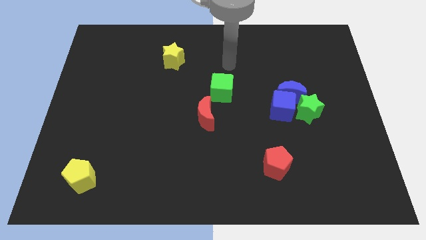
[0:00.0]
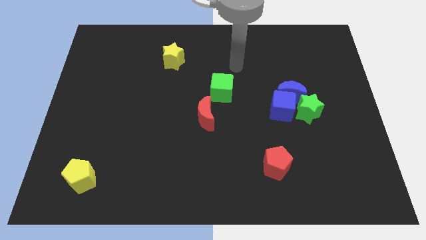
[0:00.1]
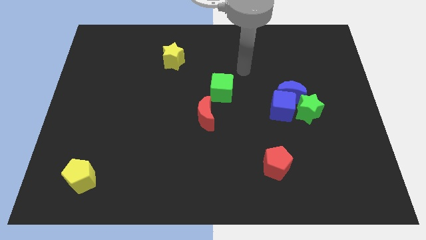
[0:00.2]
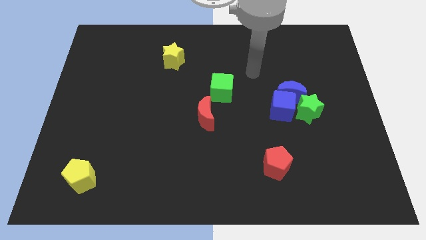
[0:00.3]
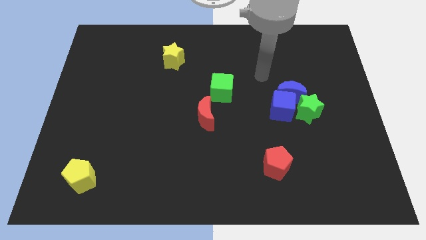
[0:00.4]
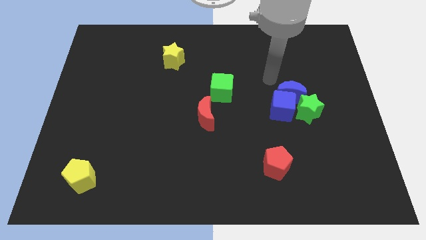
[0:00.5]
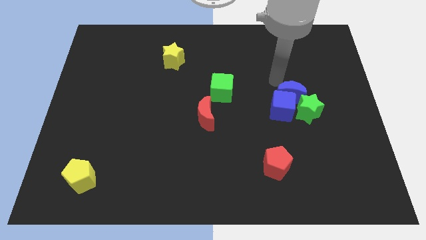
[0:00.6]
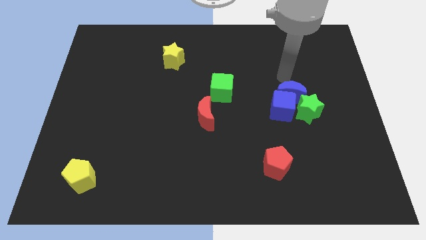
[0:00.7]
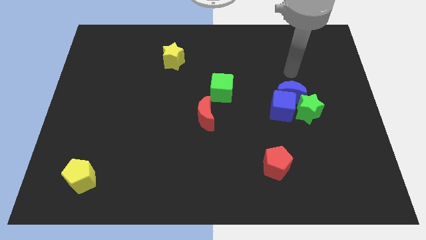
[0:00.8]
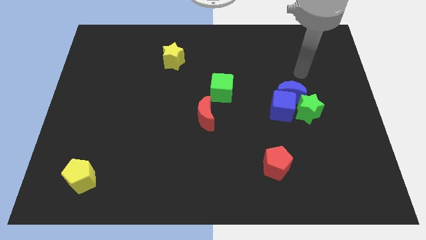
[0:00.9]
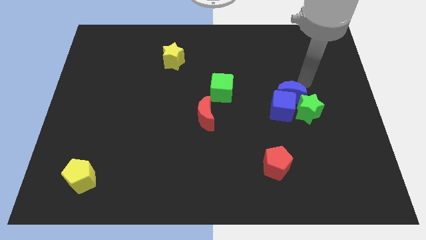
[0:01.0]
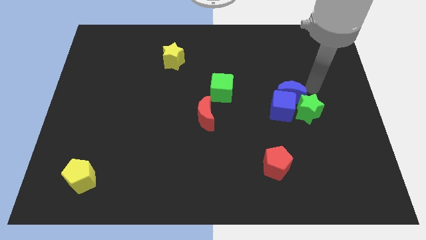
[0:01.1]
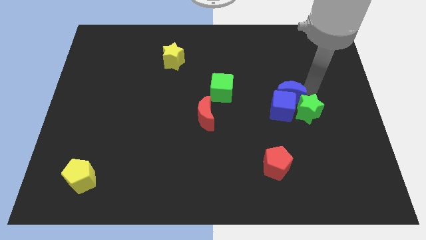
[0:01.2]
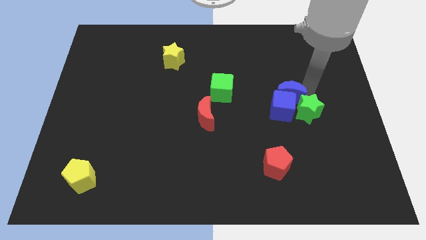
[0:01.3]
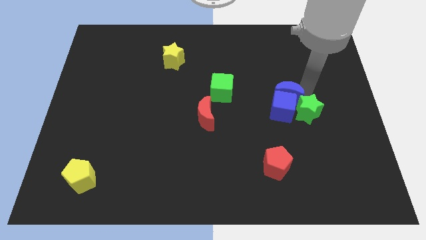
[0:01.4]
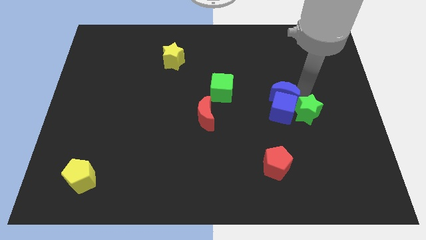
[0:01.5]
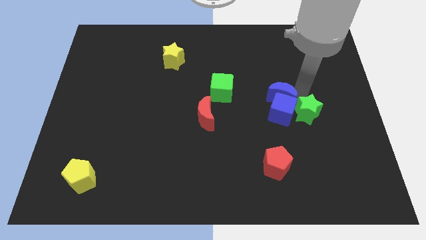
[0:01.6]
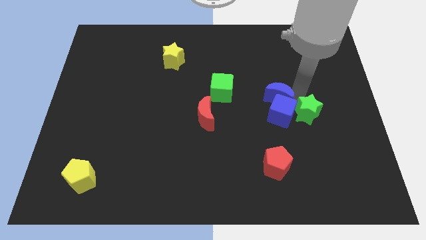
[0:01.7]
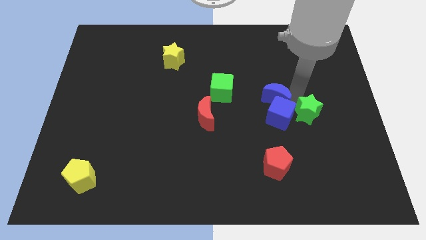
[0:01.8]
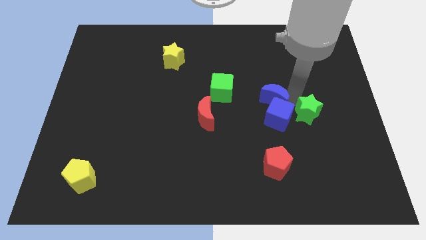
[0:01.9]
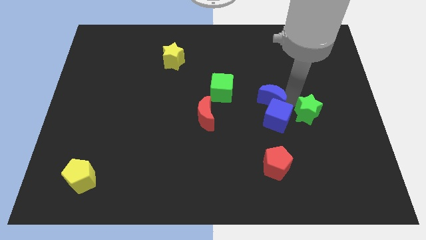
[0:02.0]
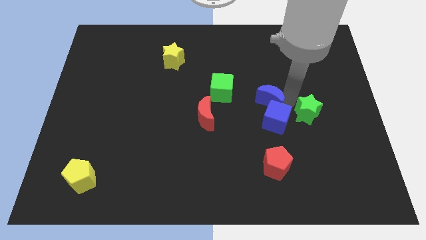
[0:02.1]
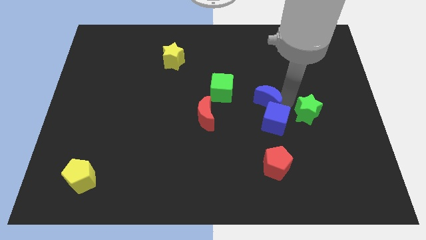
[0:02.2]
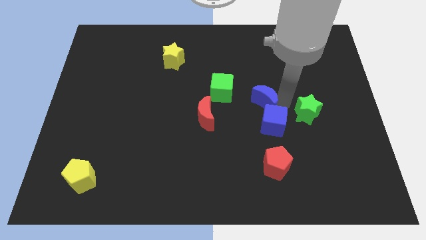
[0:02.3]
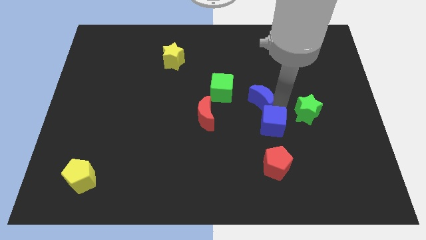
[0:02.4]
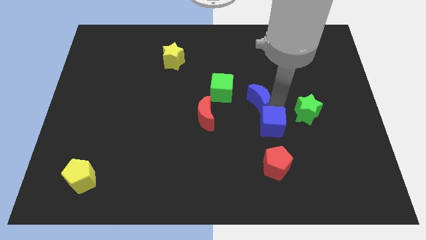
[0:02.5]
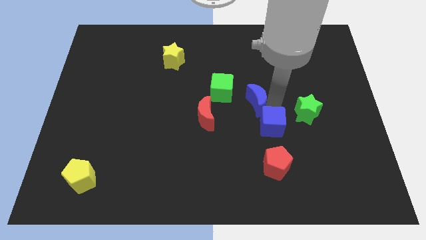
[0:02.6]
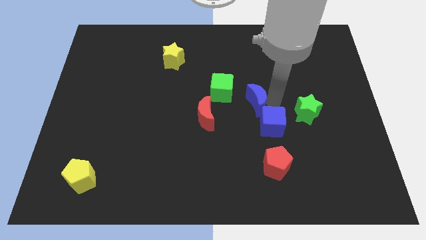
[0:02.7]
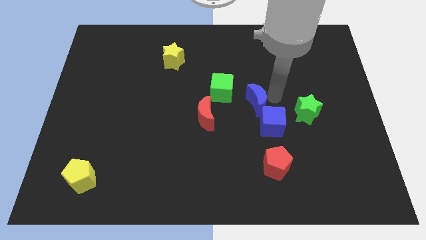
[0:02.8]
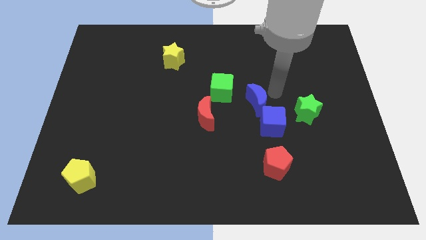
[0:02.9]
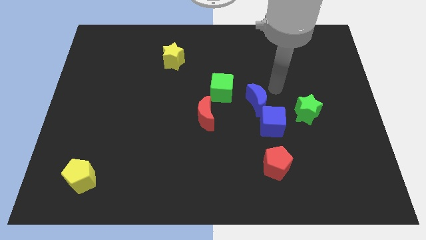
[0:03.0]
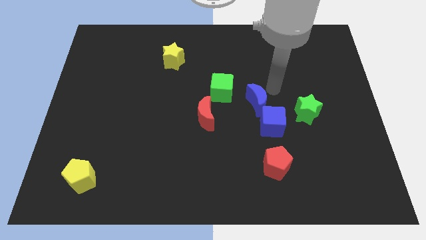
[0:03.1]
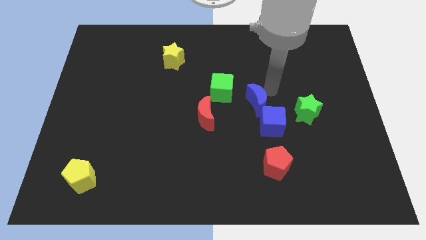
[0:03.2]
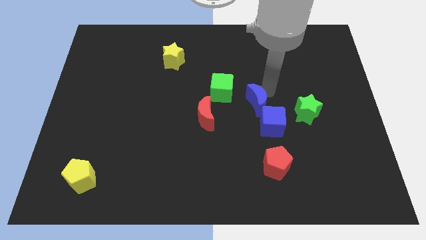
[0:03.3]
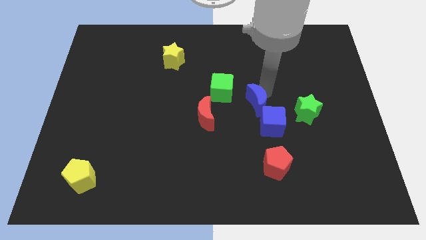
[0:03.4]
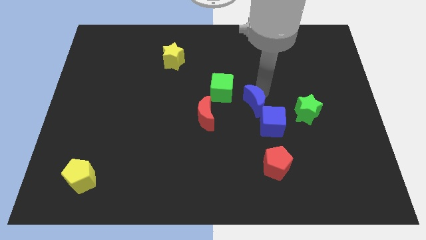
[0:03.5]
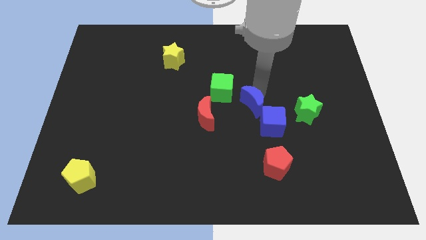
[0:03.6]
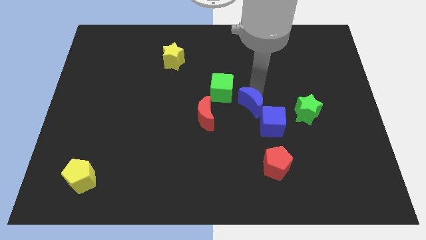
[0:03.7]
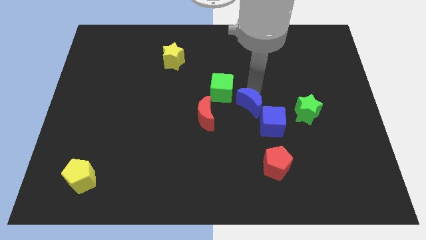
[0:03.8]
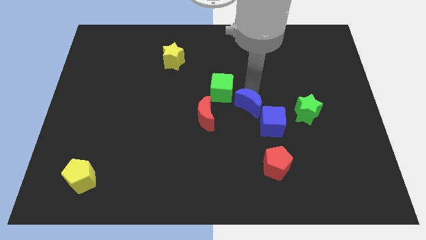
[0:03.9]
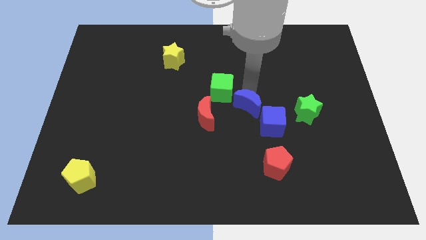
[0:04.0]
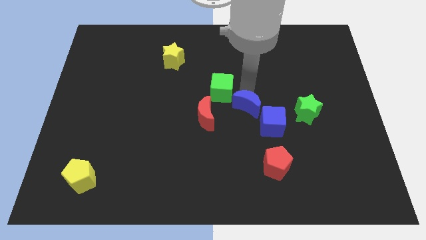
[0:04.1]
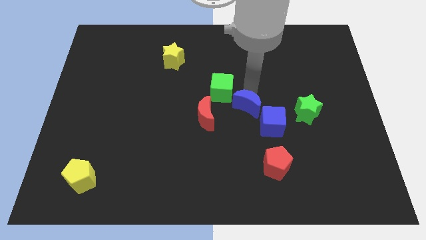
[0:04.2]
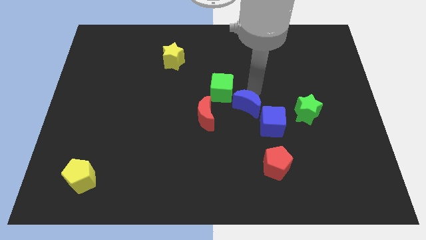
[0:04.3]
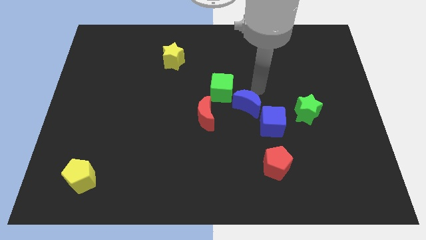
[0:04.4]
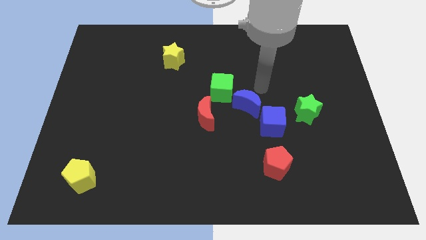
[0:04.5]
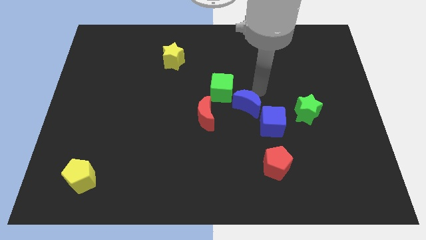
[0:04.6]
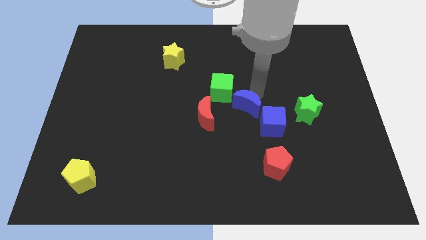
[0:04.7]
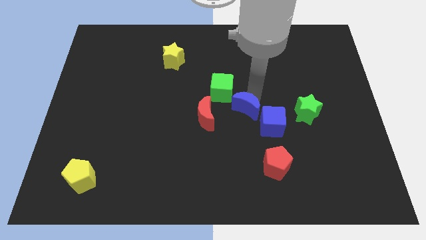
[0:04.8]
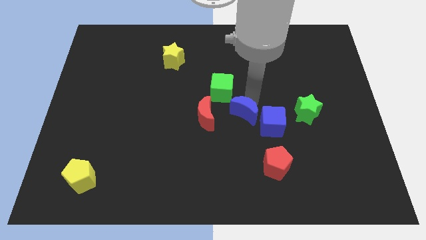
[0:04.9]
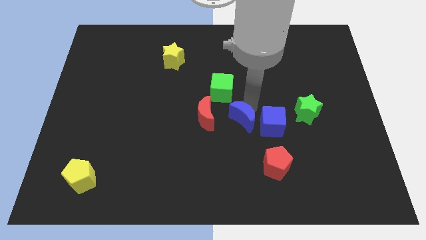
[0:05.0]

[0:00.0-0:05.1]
push the blue moon to the bottom side of the green cube

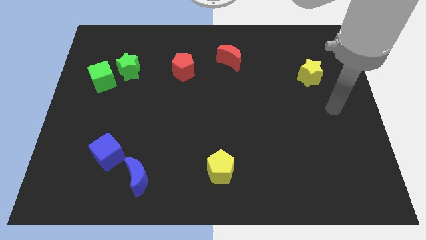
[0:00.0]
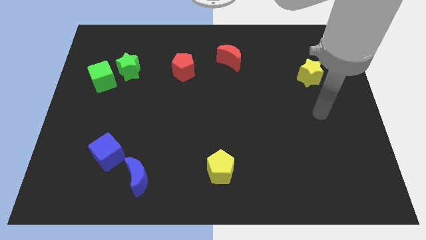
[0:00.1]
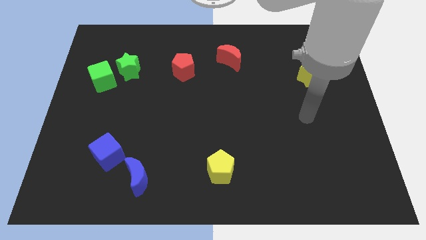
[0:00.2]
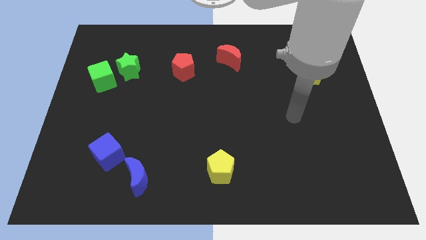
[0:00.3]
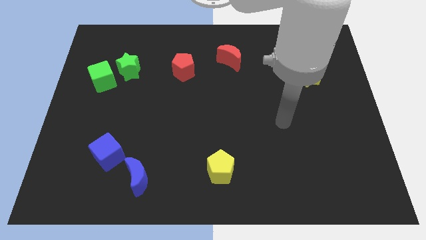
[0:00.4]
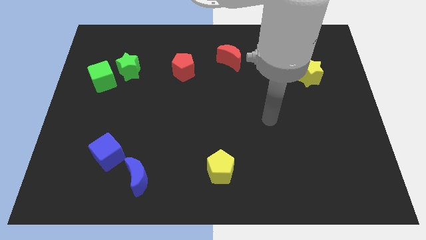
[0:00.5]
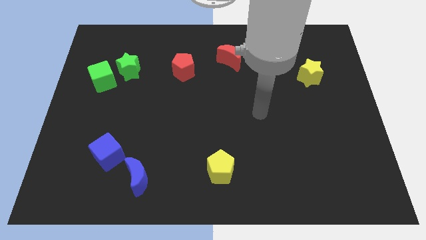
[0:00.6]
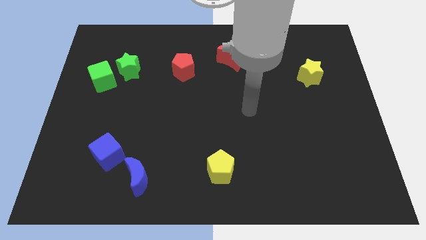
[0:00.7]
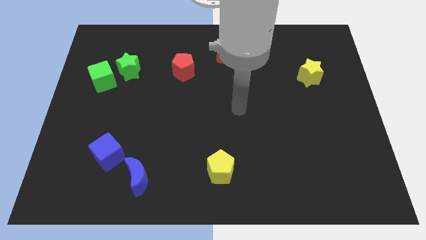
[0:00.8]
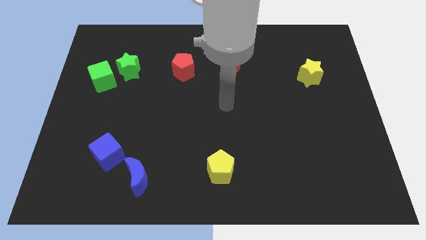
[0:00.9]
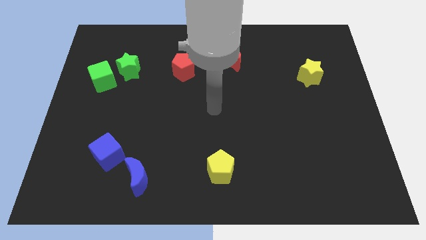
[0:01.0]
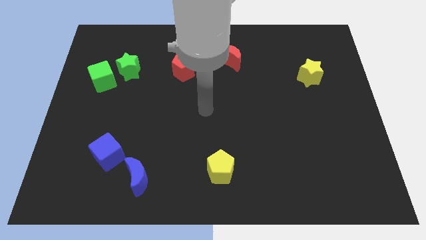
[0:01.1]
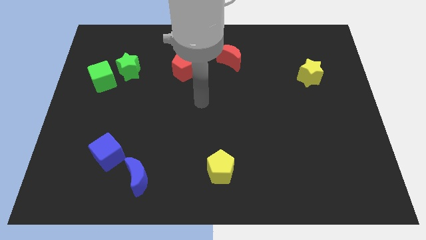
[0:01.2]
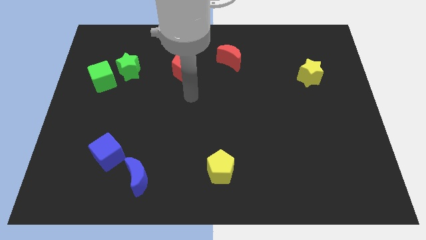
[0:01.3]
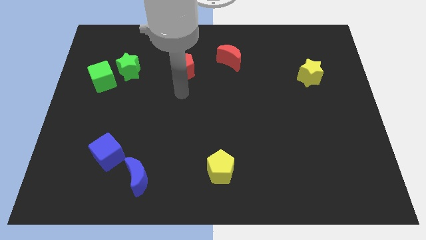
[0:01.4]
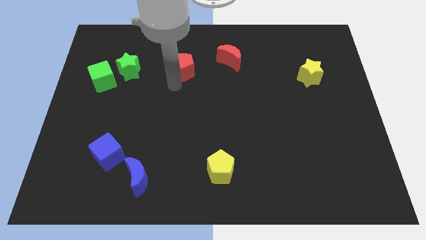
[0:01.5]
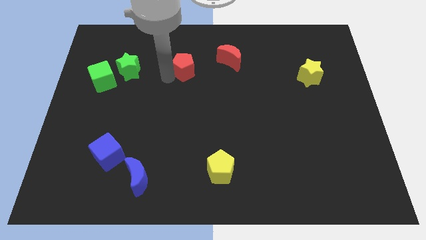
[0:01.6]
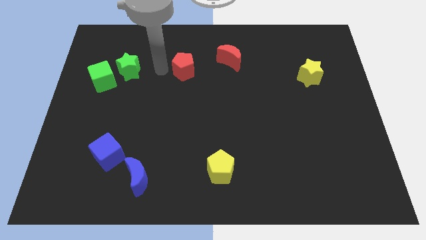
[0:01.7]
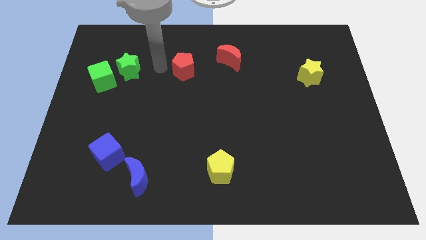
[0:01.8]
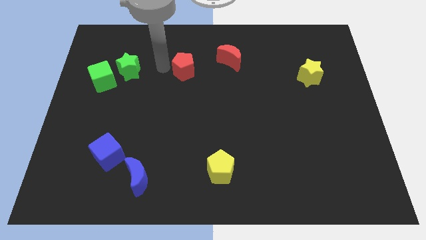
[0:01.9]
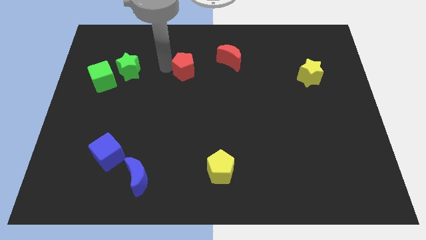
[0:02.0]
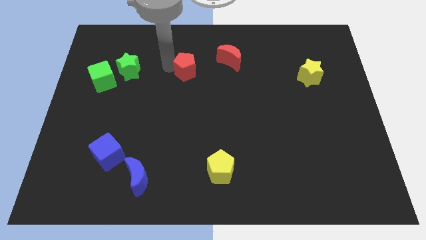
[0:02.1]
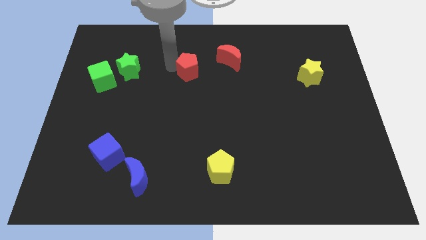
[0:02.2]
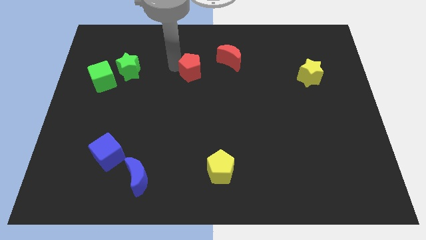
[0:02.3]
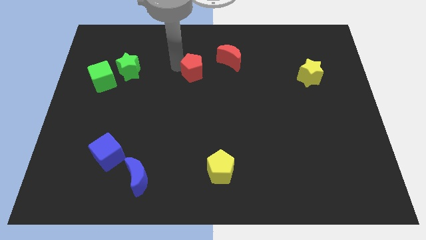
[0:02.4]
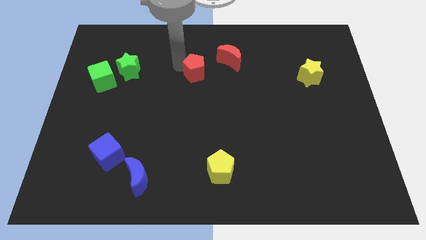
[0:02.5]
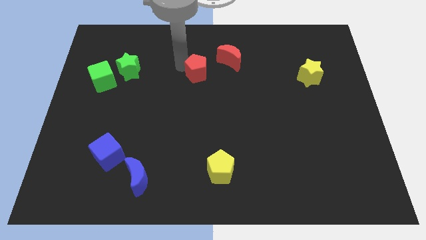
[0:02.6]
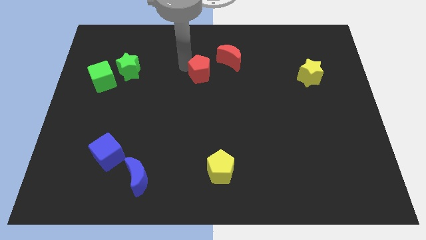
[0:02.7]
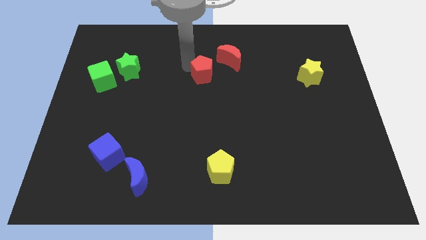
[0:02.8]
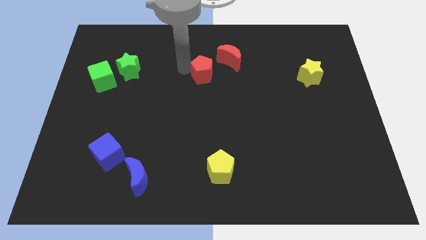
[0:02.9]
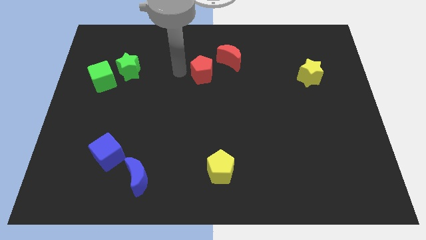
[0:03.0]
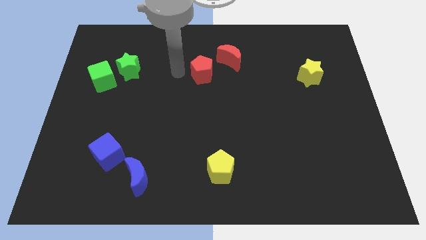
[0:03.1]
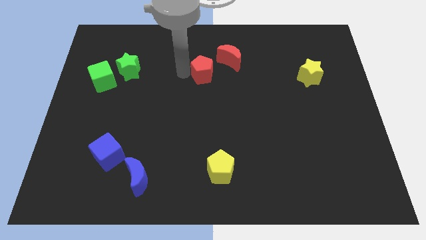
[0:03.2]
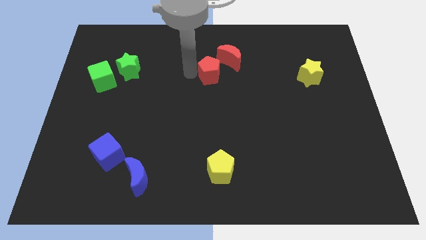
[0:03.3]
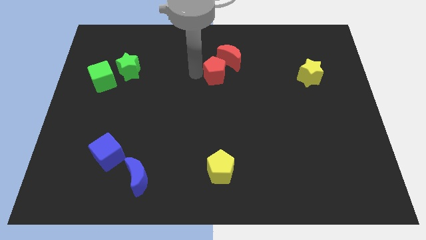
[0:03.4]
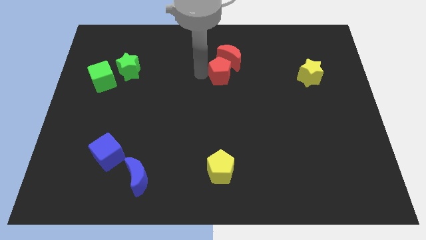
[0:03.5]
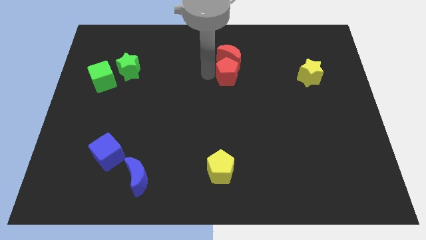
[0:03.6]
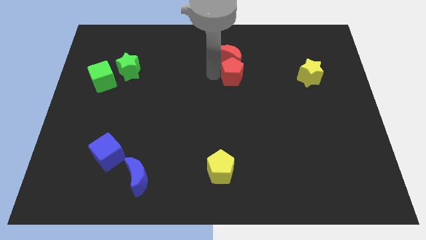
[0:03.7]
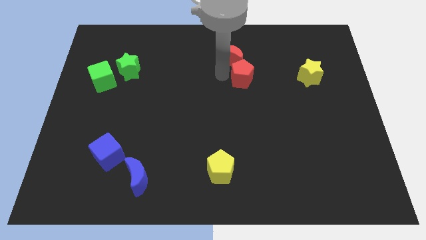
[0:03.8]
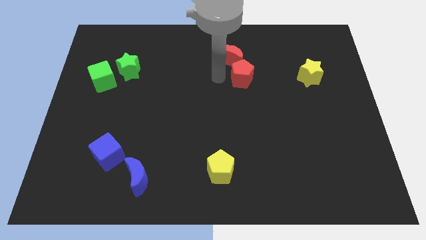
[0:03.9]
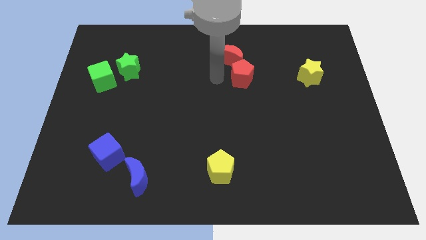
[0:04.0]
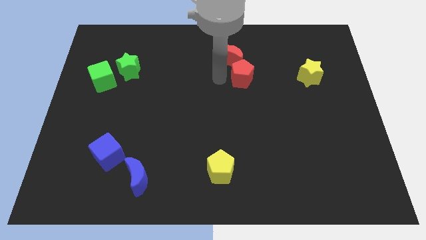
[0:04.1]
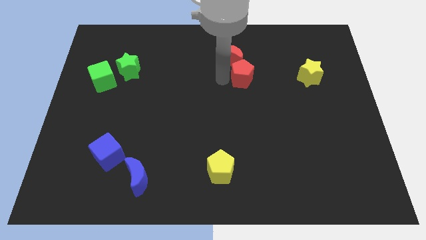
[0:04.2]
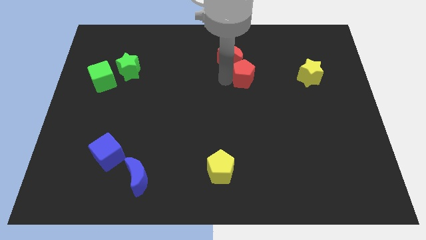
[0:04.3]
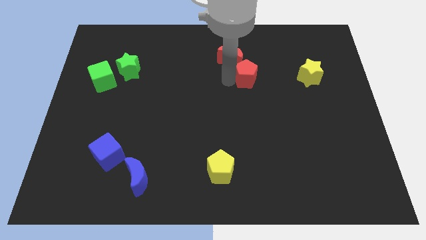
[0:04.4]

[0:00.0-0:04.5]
move the red pentagon to the left side of the yellow star
